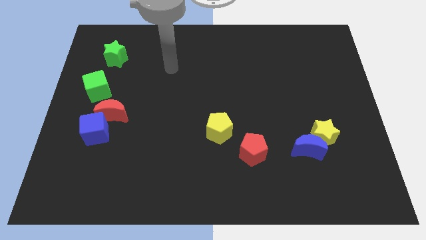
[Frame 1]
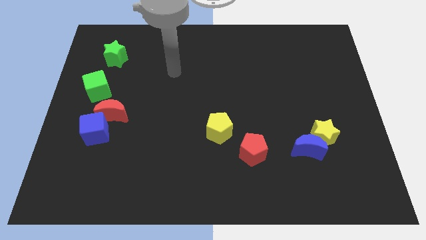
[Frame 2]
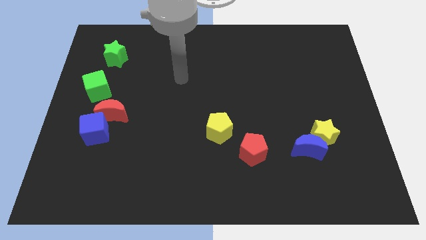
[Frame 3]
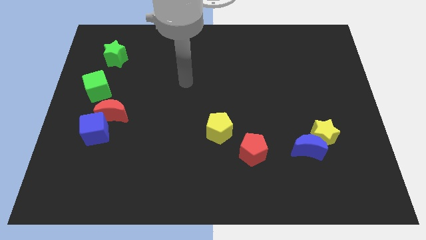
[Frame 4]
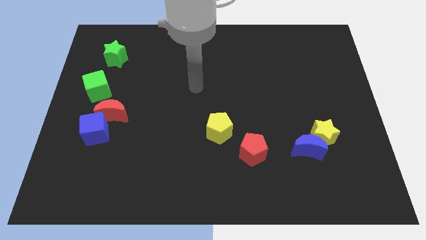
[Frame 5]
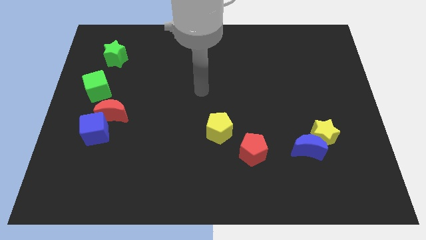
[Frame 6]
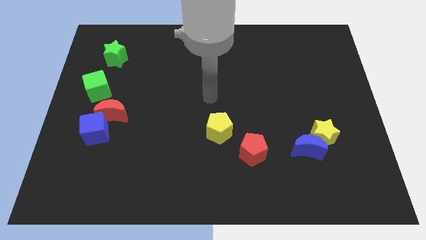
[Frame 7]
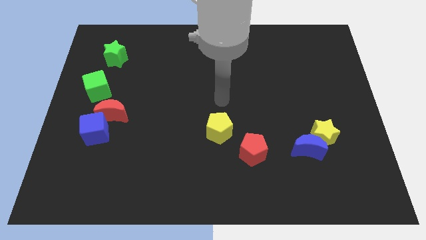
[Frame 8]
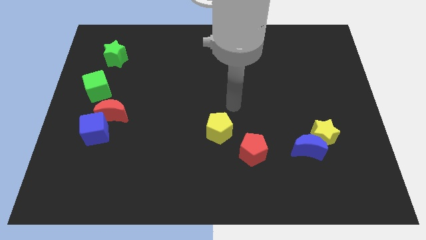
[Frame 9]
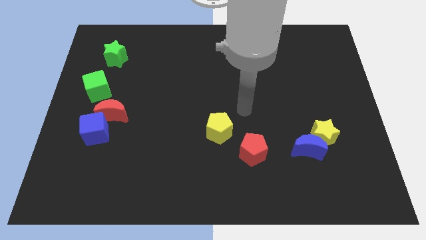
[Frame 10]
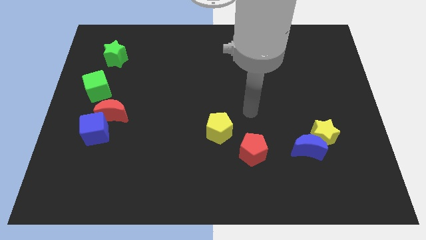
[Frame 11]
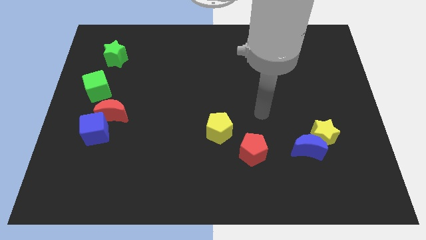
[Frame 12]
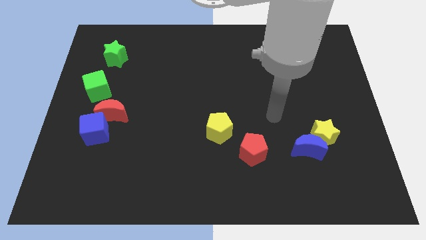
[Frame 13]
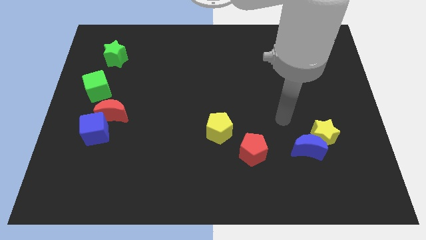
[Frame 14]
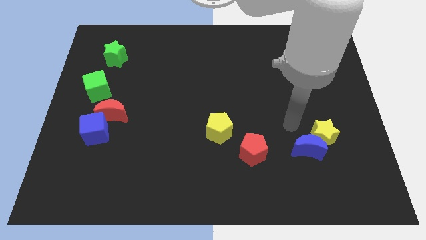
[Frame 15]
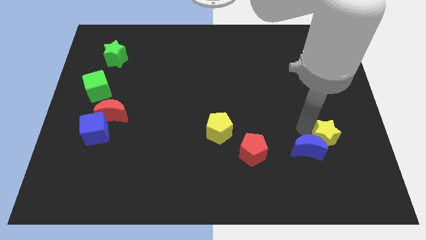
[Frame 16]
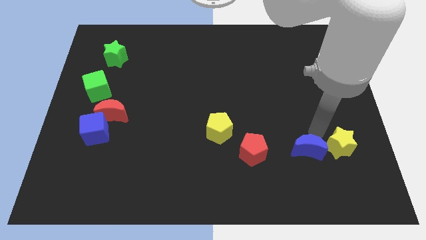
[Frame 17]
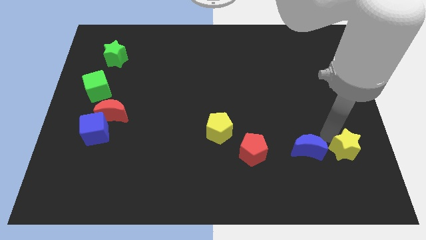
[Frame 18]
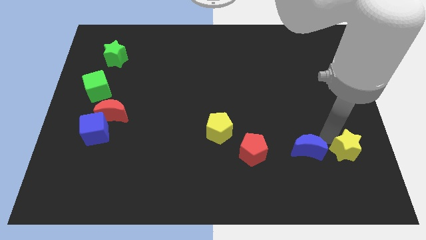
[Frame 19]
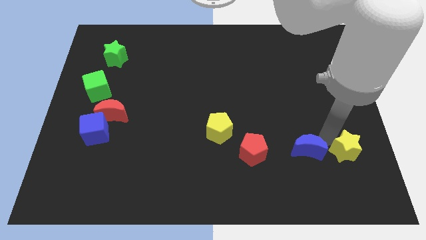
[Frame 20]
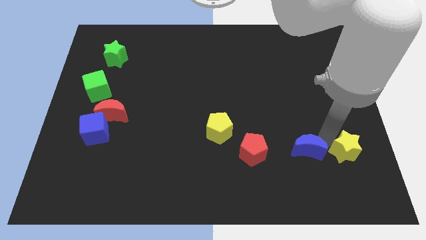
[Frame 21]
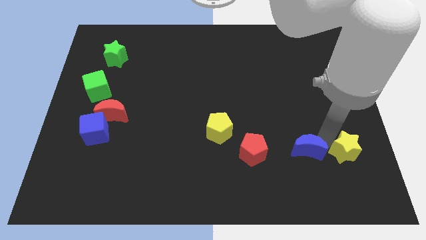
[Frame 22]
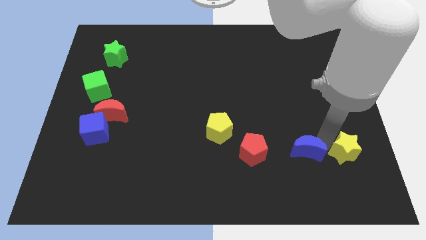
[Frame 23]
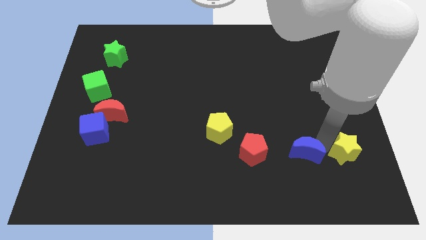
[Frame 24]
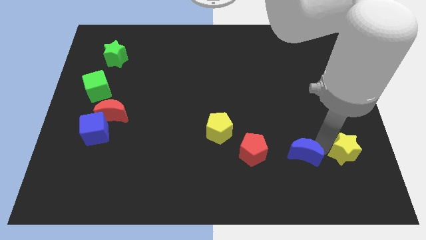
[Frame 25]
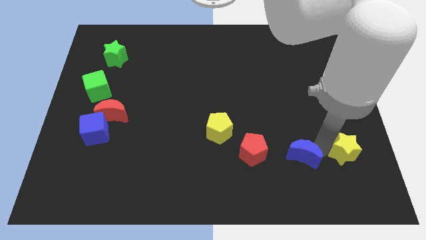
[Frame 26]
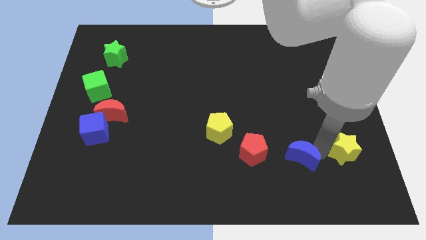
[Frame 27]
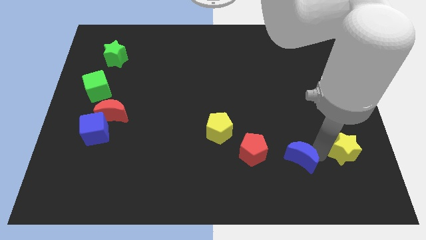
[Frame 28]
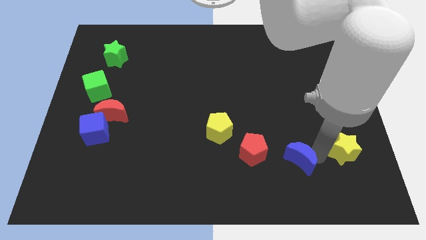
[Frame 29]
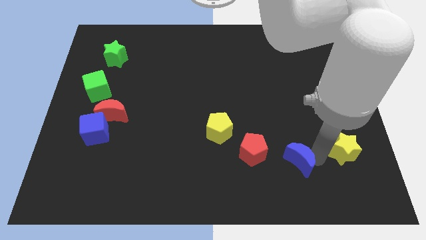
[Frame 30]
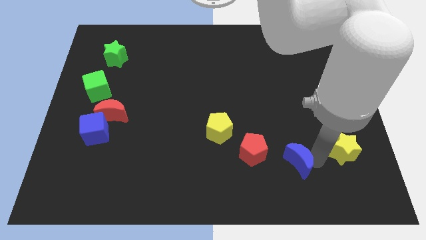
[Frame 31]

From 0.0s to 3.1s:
move the blue moon away from the yellow star

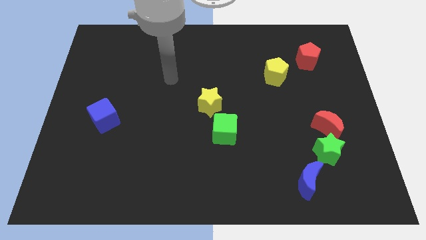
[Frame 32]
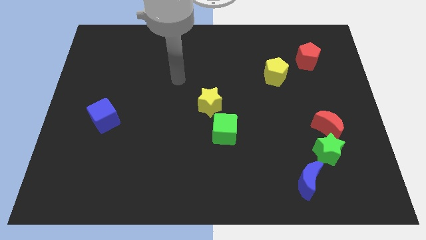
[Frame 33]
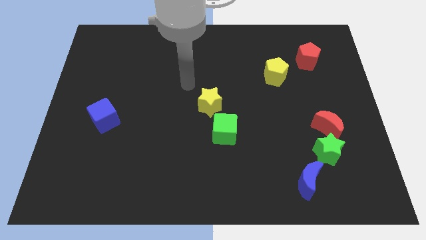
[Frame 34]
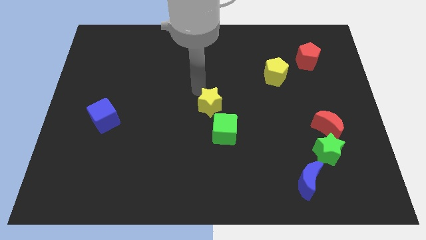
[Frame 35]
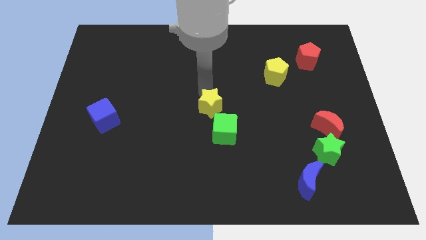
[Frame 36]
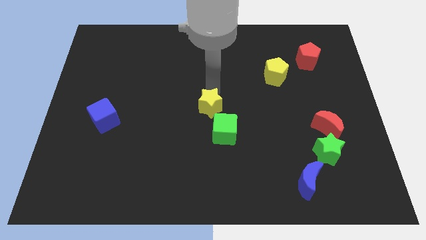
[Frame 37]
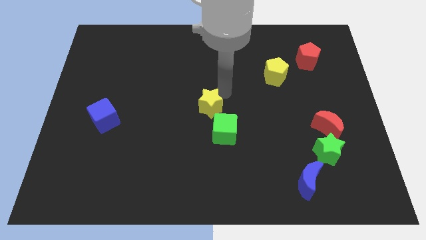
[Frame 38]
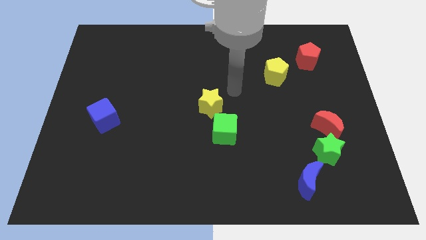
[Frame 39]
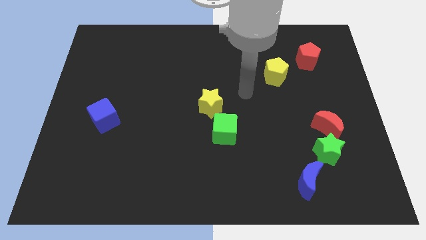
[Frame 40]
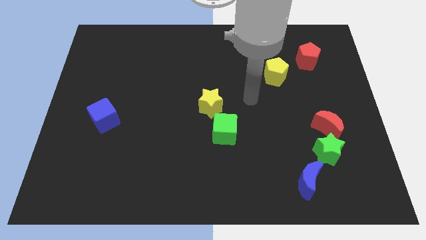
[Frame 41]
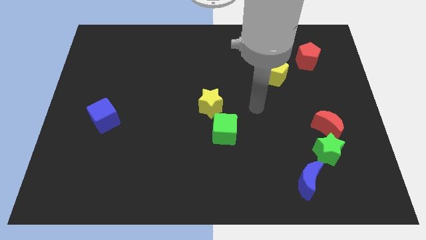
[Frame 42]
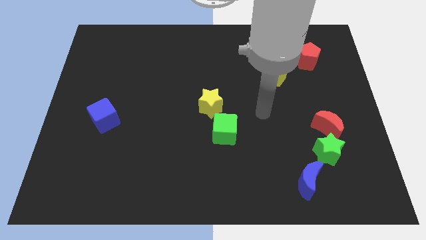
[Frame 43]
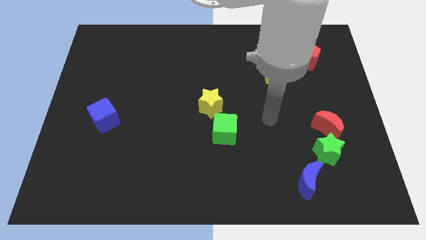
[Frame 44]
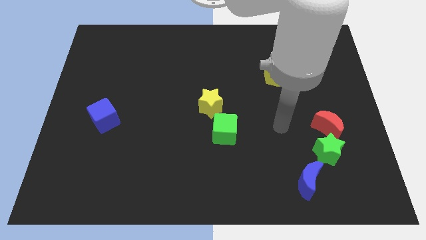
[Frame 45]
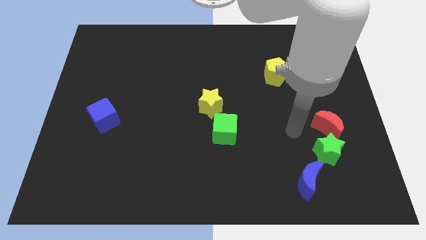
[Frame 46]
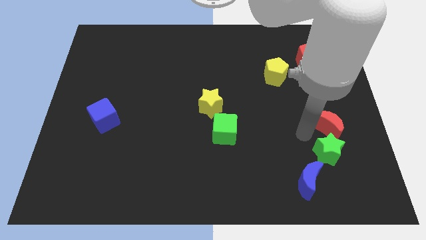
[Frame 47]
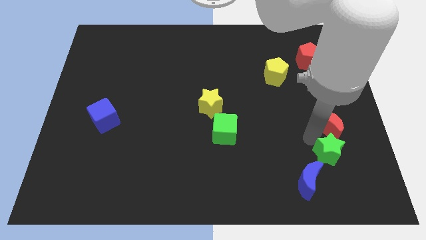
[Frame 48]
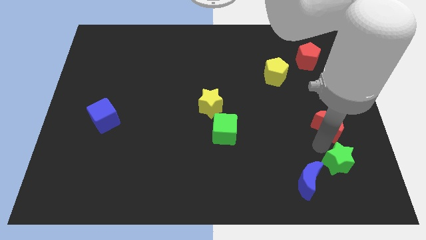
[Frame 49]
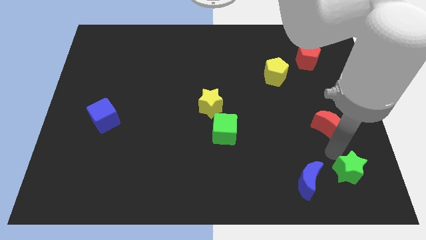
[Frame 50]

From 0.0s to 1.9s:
pull the red moon apart from the green star

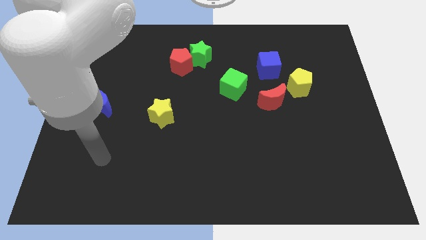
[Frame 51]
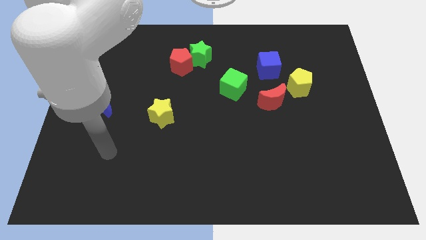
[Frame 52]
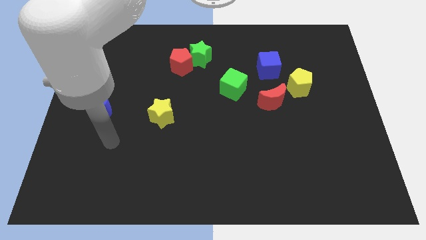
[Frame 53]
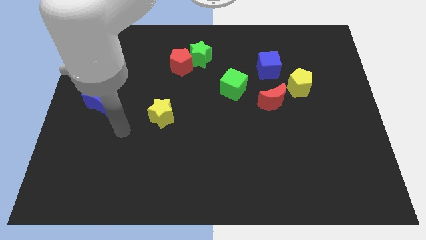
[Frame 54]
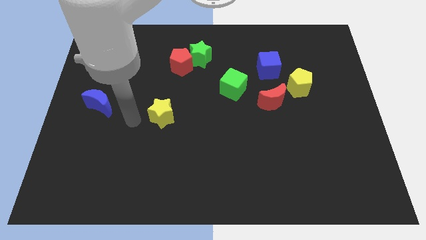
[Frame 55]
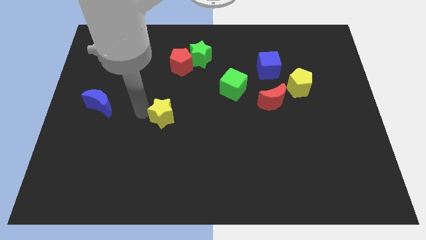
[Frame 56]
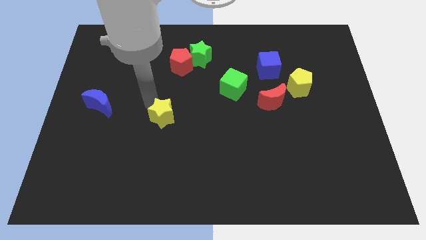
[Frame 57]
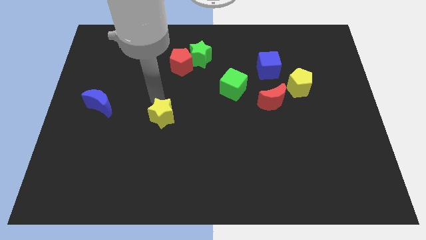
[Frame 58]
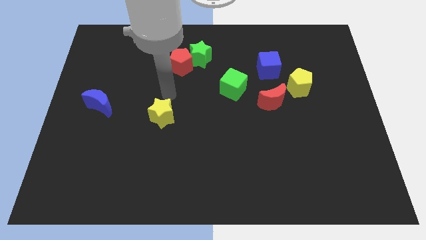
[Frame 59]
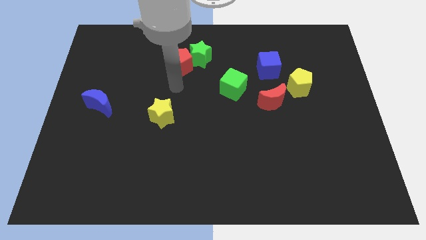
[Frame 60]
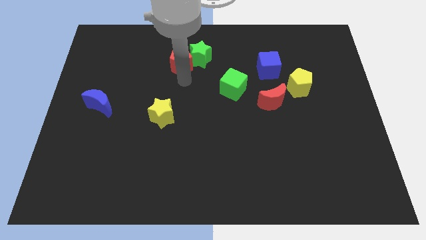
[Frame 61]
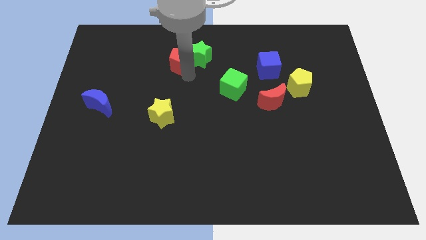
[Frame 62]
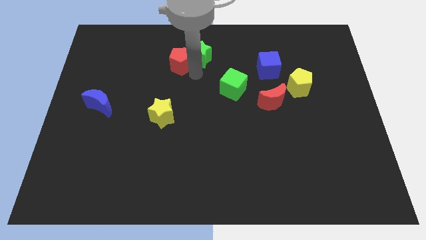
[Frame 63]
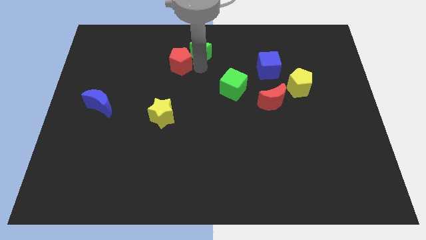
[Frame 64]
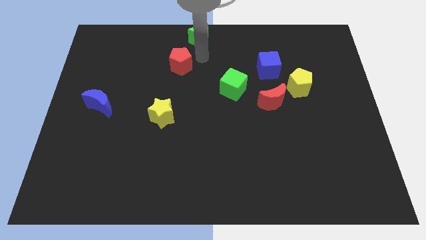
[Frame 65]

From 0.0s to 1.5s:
move the red pentagon away from the green star

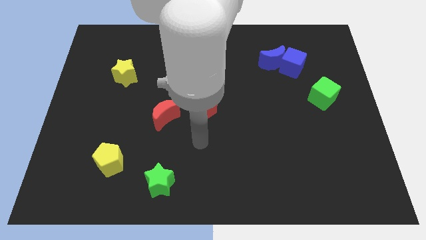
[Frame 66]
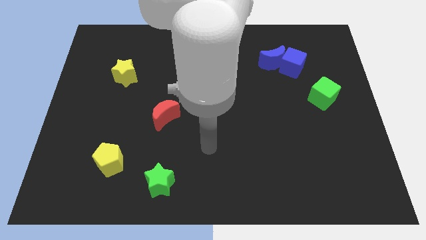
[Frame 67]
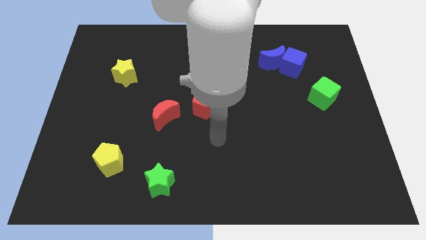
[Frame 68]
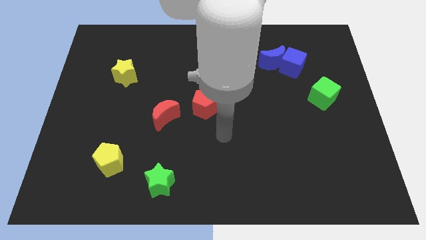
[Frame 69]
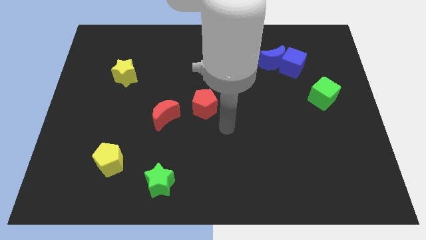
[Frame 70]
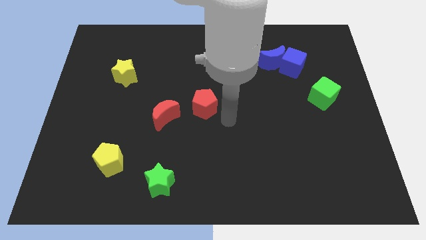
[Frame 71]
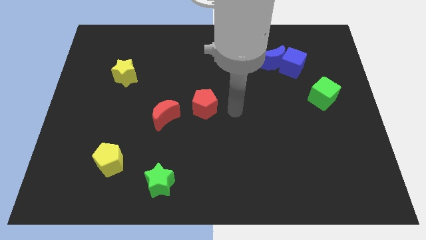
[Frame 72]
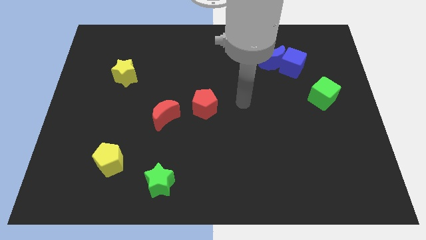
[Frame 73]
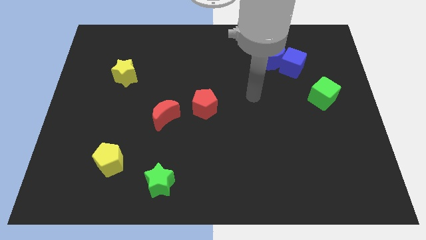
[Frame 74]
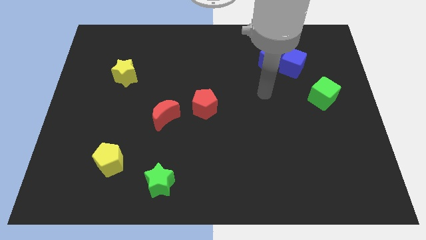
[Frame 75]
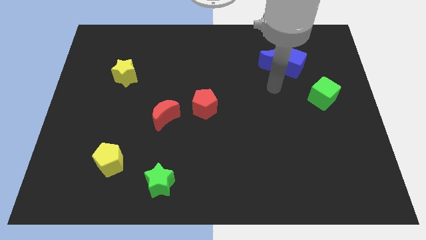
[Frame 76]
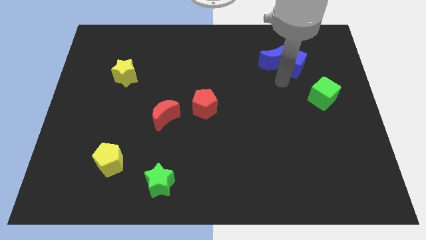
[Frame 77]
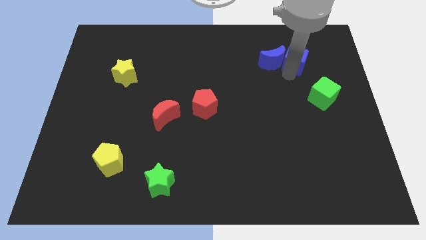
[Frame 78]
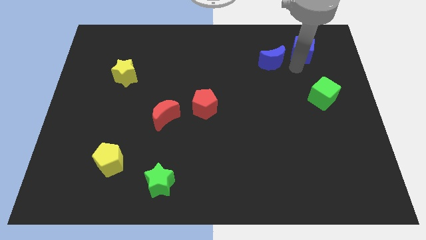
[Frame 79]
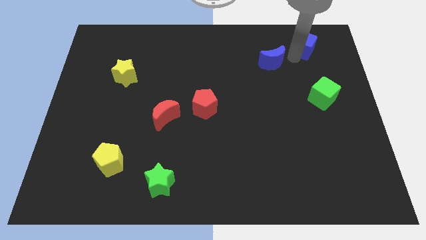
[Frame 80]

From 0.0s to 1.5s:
separate the blue moon from the blue cube

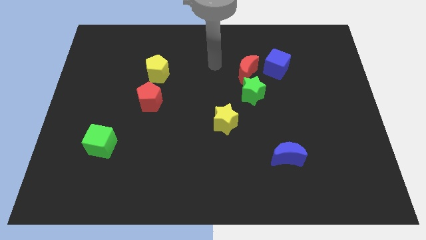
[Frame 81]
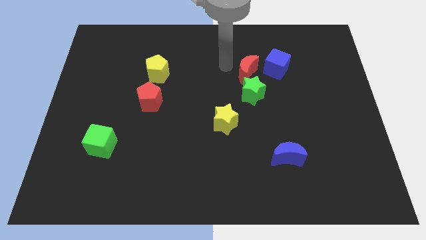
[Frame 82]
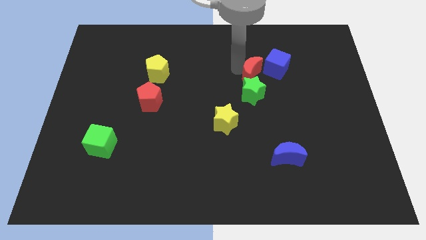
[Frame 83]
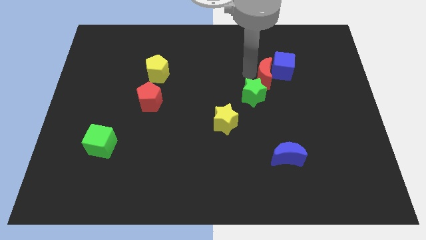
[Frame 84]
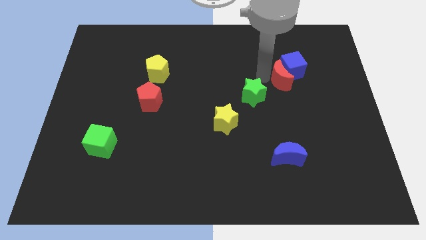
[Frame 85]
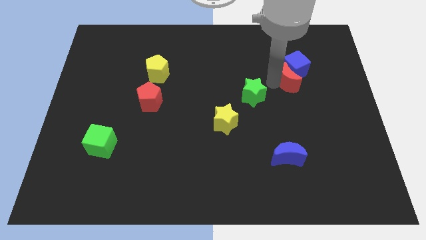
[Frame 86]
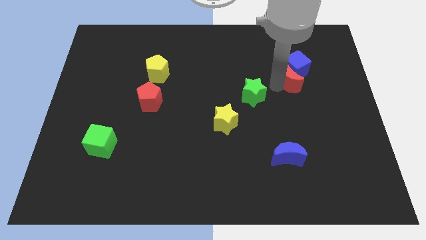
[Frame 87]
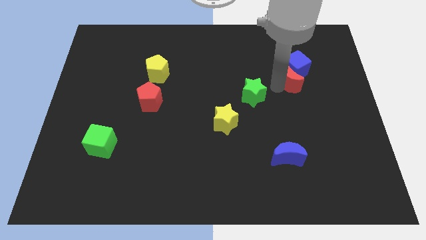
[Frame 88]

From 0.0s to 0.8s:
separate the green star from the red moon

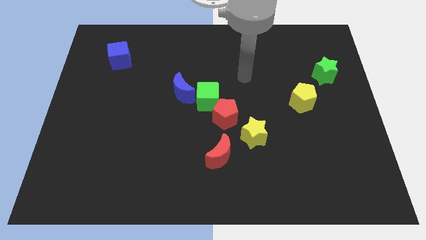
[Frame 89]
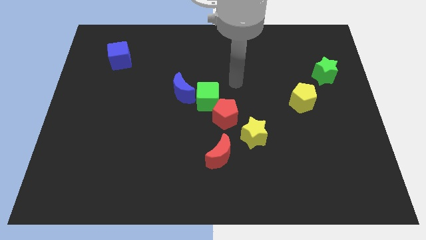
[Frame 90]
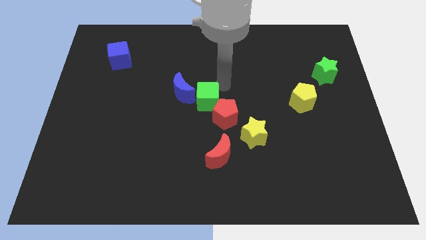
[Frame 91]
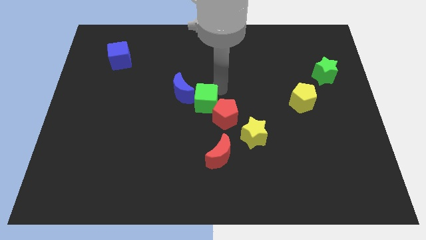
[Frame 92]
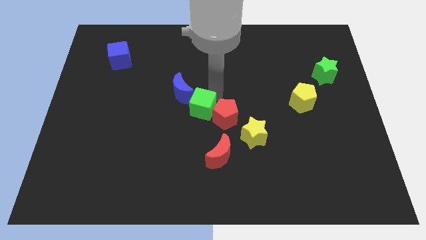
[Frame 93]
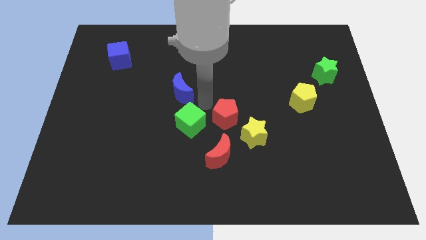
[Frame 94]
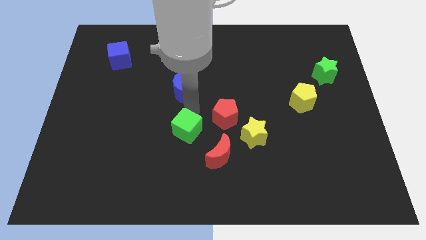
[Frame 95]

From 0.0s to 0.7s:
move the blue moon away from the green cube
